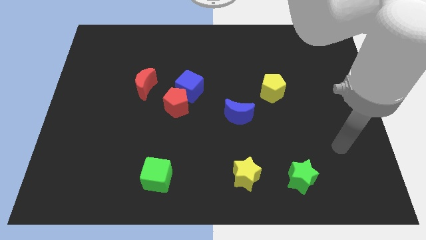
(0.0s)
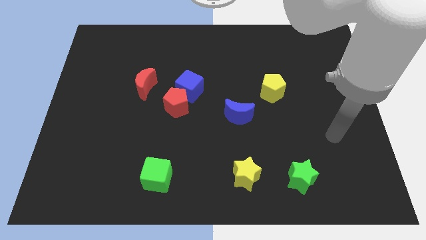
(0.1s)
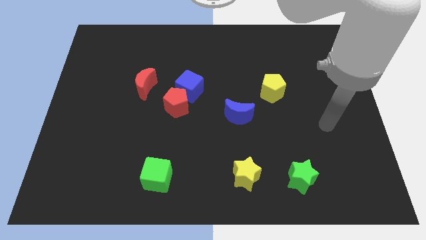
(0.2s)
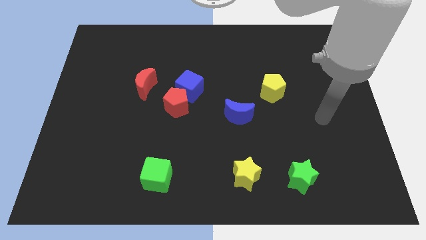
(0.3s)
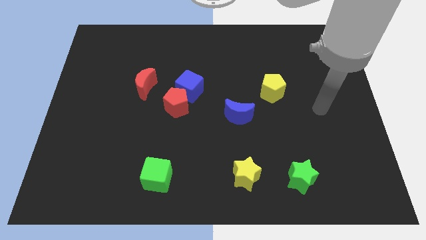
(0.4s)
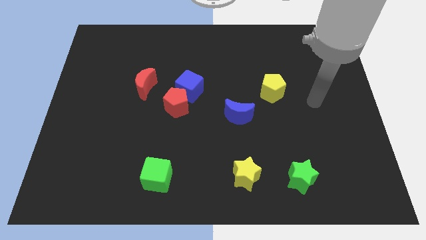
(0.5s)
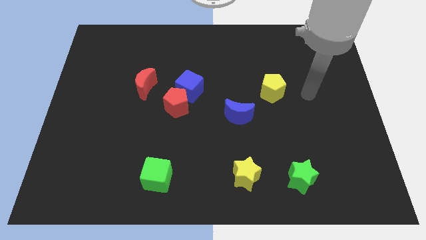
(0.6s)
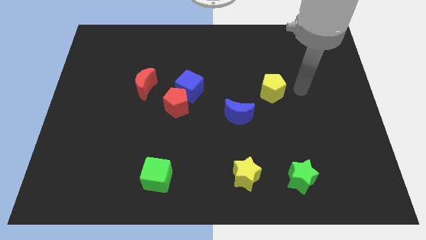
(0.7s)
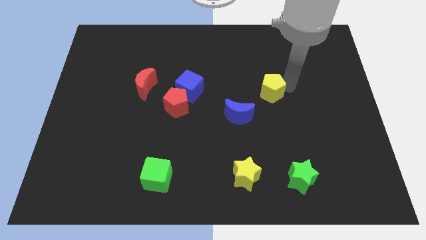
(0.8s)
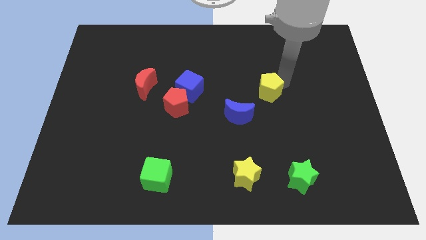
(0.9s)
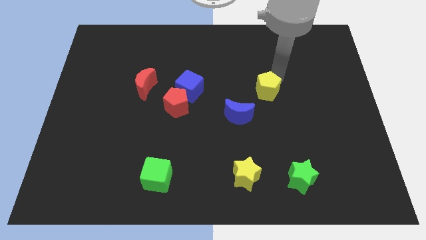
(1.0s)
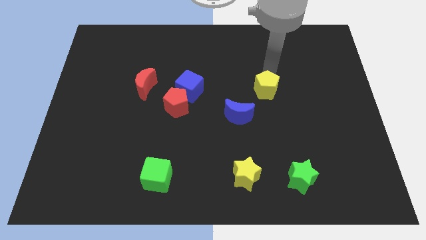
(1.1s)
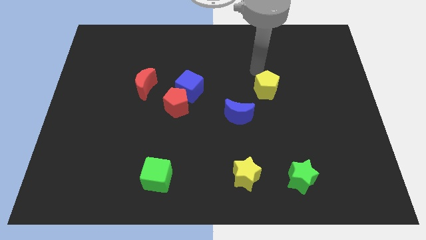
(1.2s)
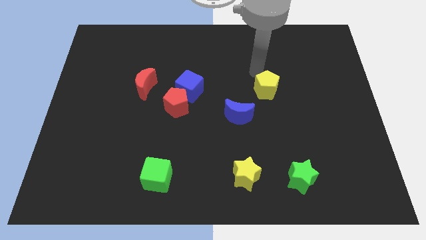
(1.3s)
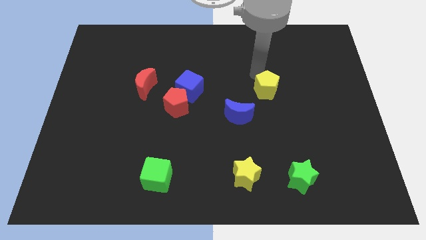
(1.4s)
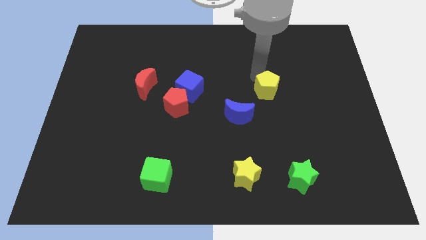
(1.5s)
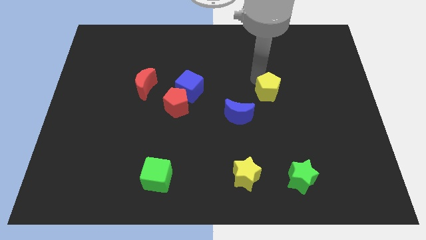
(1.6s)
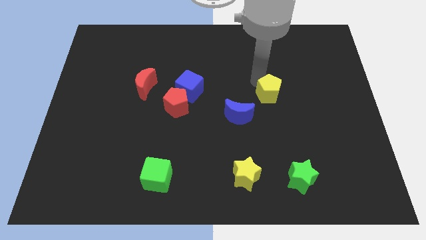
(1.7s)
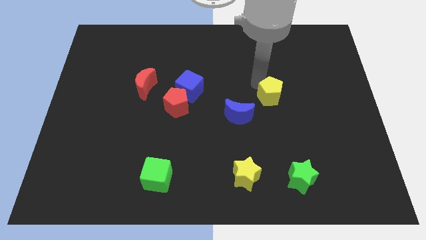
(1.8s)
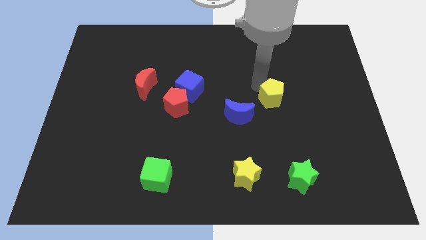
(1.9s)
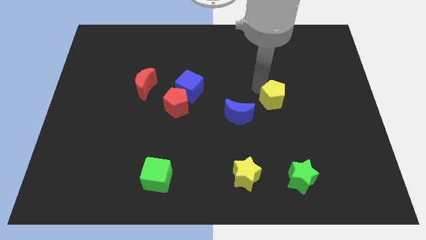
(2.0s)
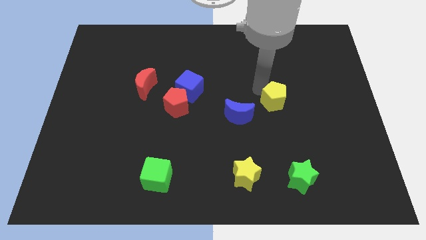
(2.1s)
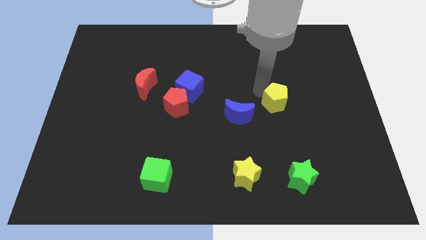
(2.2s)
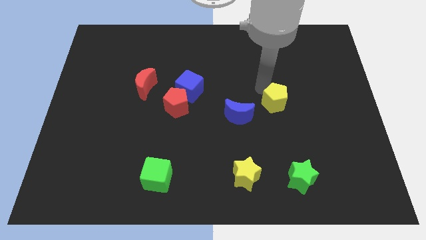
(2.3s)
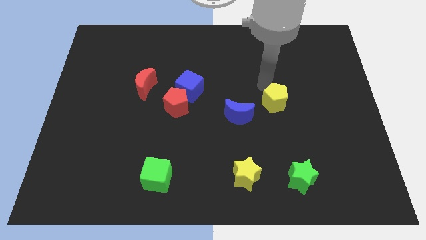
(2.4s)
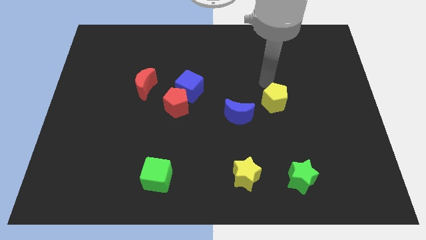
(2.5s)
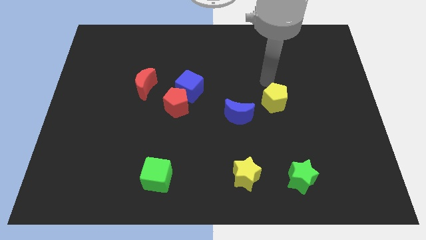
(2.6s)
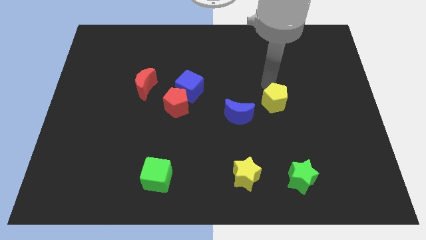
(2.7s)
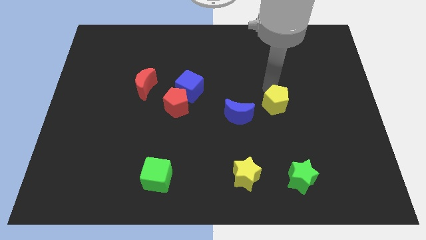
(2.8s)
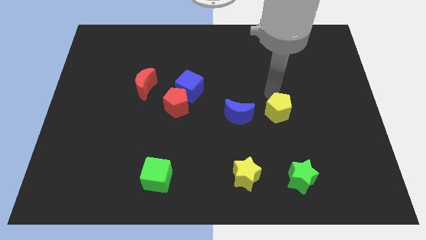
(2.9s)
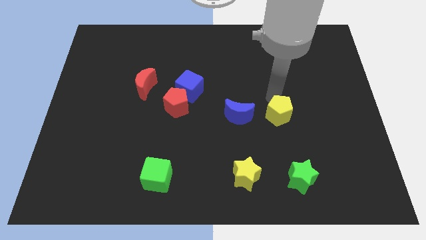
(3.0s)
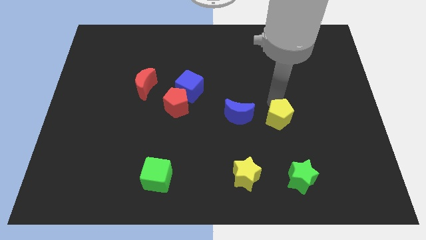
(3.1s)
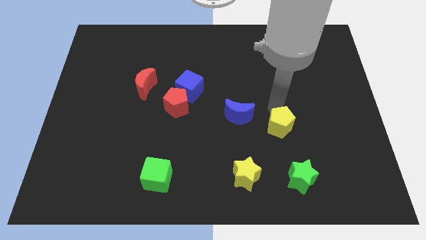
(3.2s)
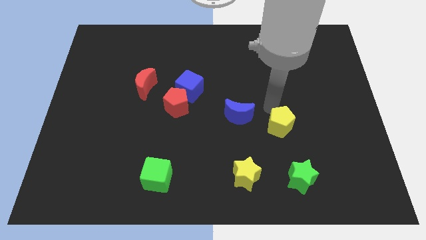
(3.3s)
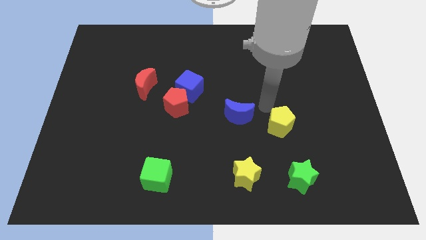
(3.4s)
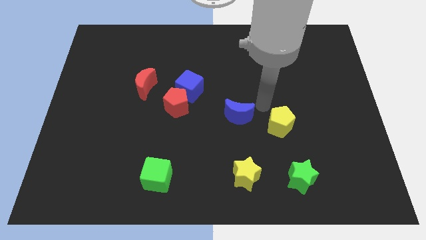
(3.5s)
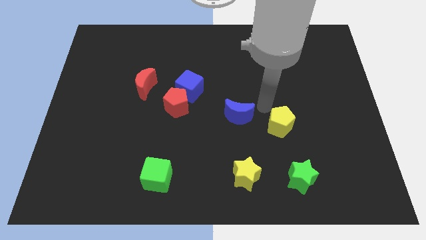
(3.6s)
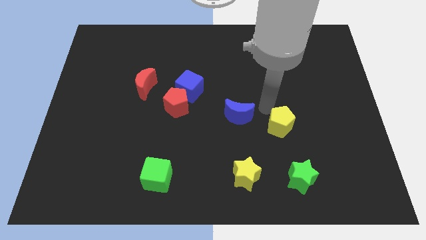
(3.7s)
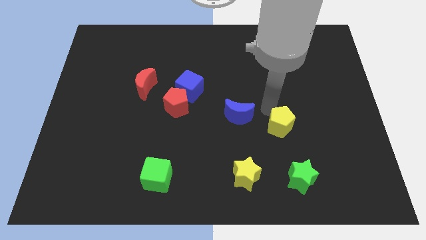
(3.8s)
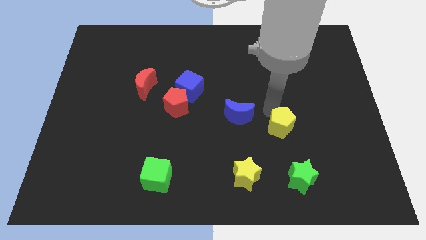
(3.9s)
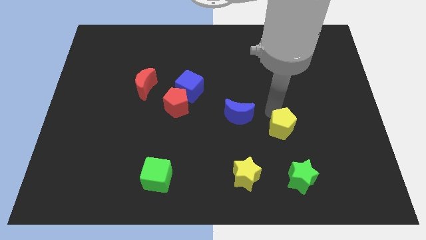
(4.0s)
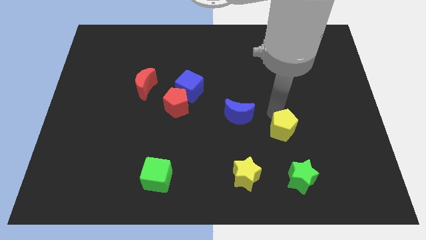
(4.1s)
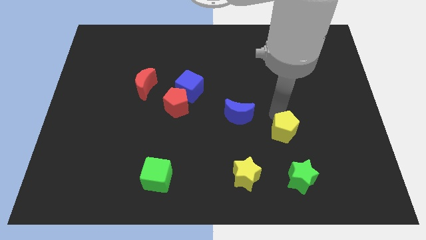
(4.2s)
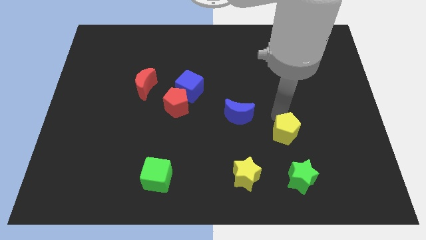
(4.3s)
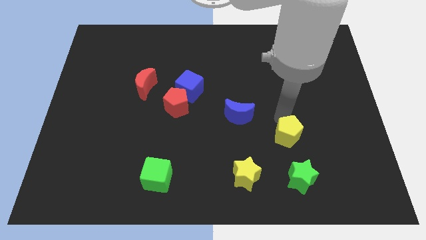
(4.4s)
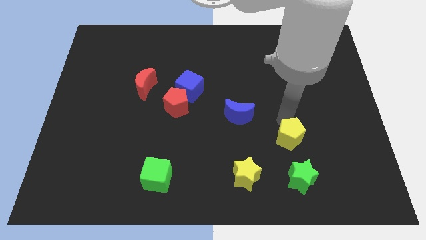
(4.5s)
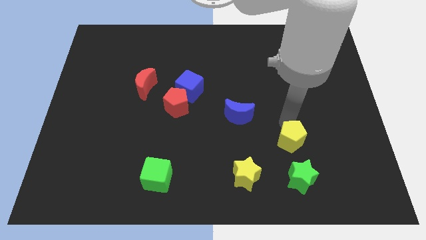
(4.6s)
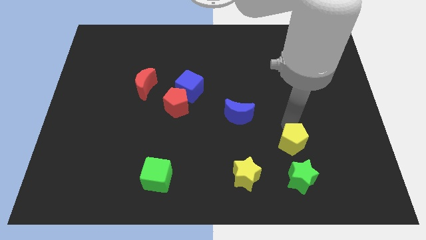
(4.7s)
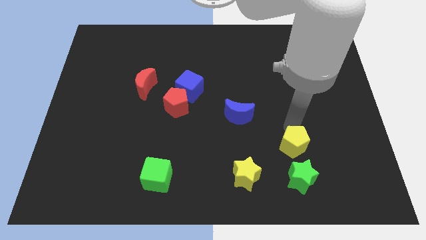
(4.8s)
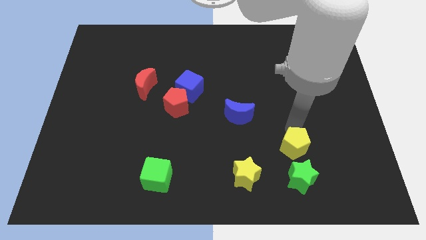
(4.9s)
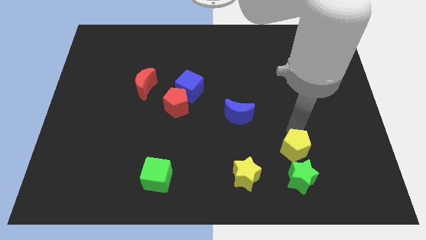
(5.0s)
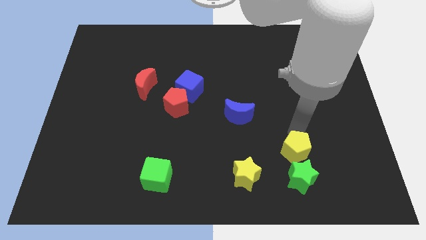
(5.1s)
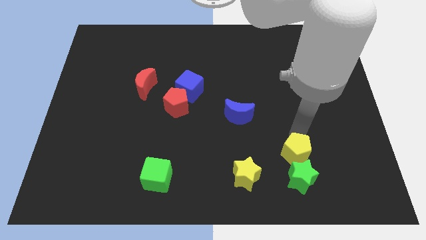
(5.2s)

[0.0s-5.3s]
slide the yellow pentagon towards the green star
